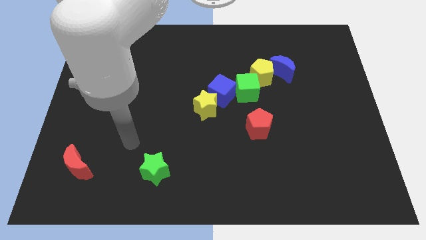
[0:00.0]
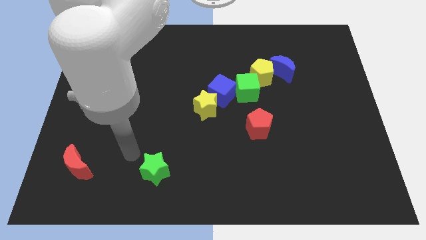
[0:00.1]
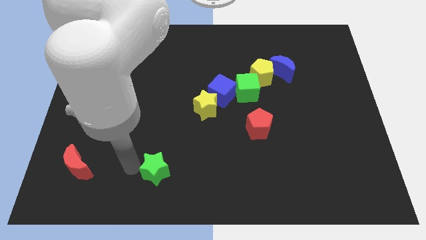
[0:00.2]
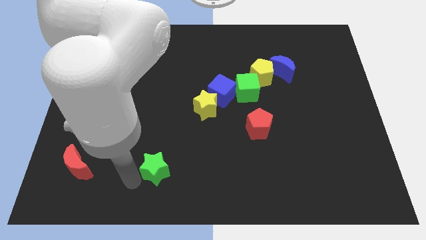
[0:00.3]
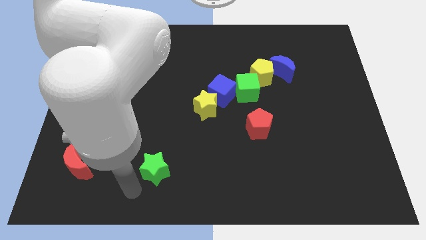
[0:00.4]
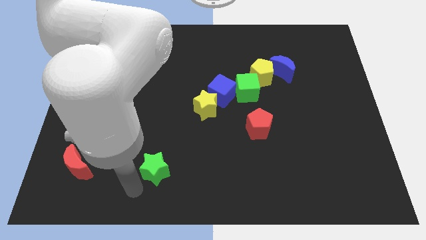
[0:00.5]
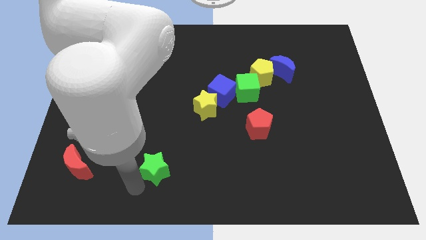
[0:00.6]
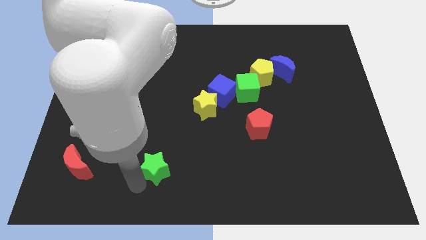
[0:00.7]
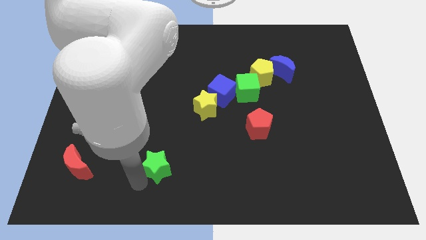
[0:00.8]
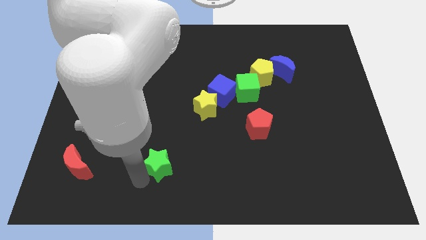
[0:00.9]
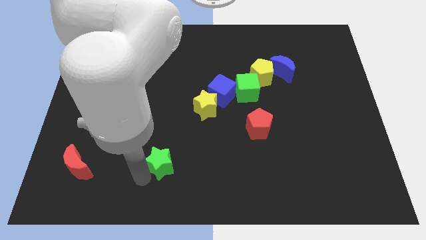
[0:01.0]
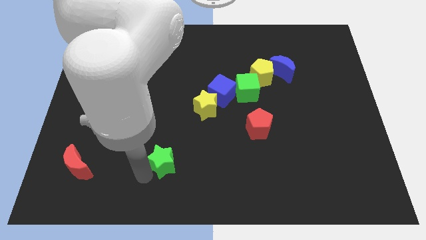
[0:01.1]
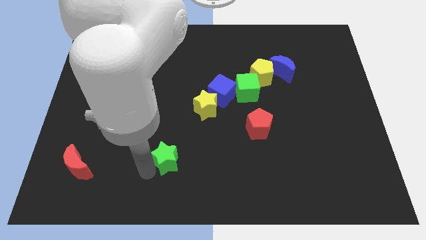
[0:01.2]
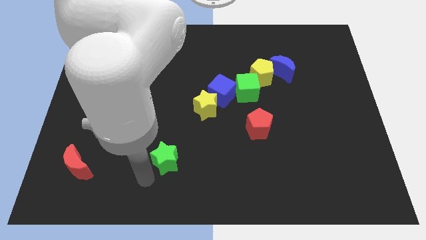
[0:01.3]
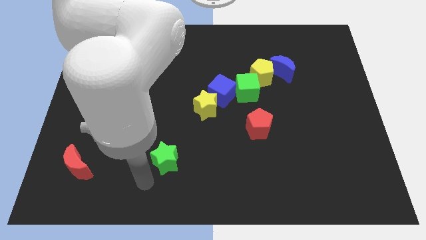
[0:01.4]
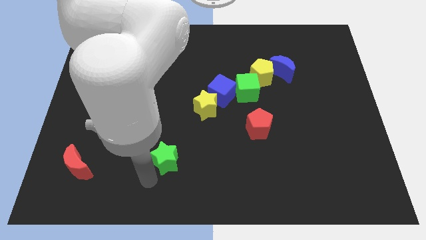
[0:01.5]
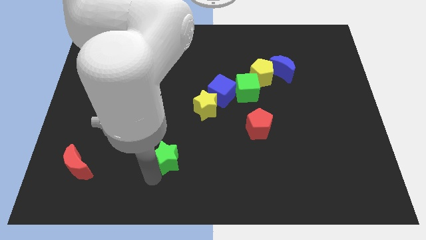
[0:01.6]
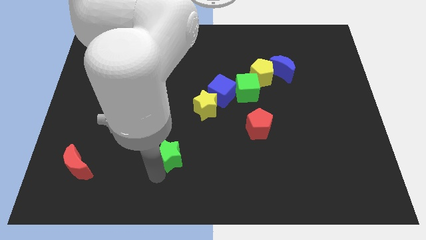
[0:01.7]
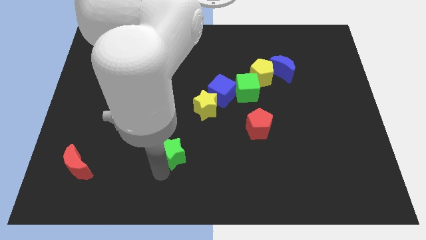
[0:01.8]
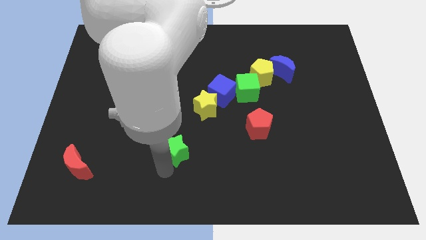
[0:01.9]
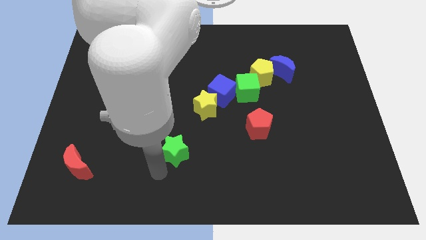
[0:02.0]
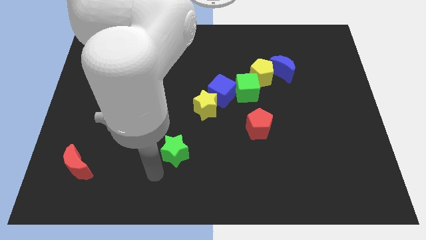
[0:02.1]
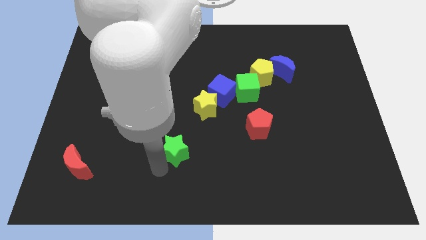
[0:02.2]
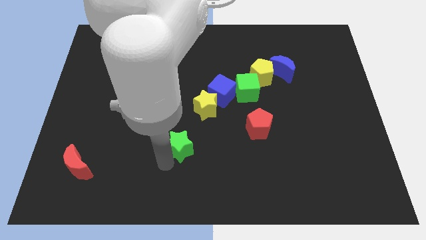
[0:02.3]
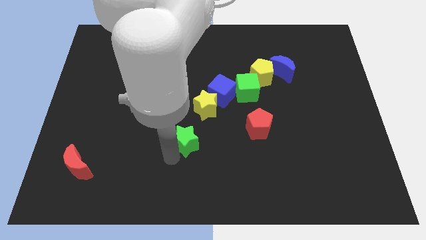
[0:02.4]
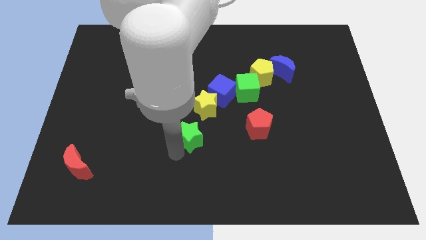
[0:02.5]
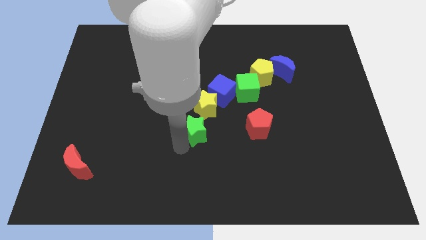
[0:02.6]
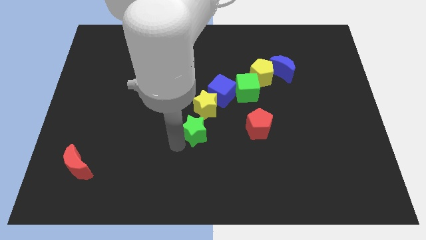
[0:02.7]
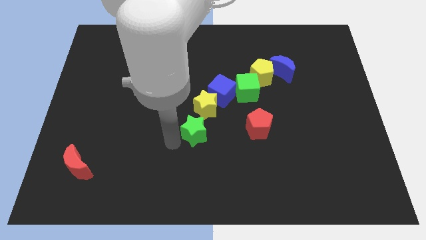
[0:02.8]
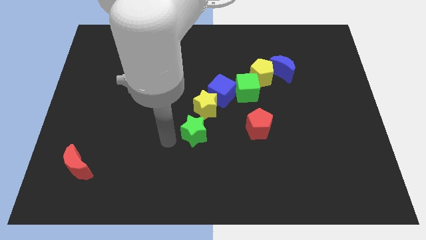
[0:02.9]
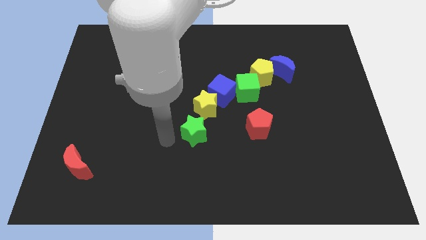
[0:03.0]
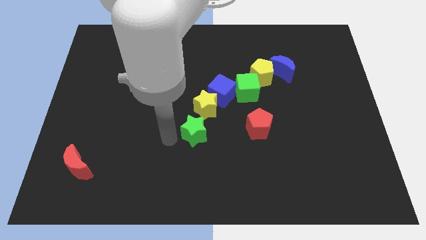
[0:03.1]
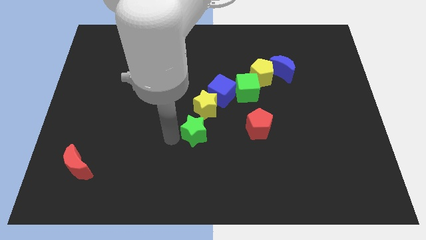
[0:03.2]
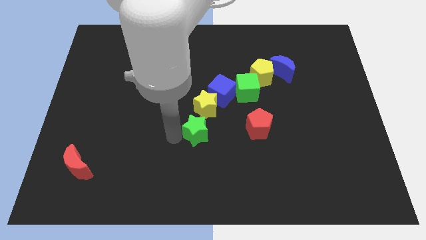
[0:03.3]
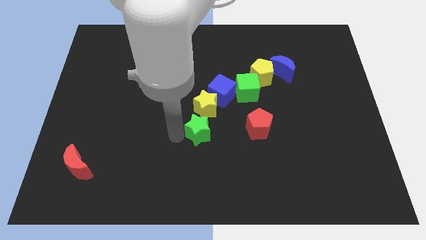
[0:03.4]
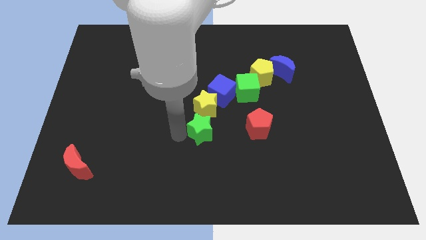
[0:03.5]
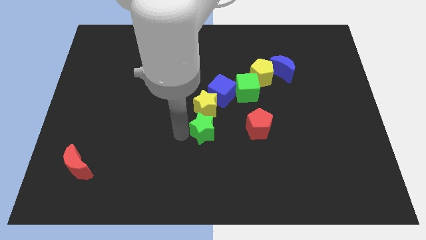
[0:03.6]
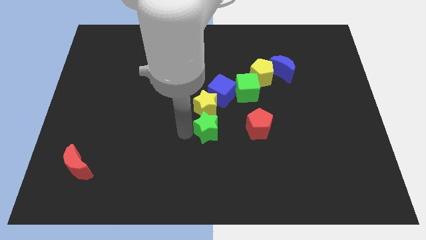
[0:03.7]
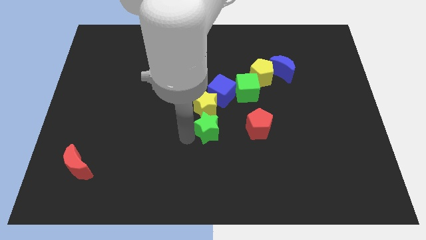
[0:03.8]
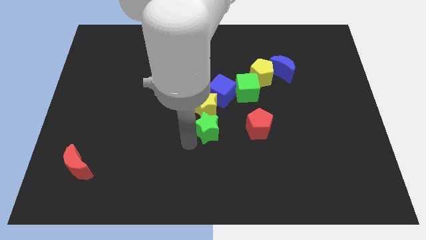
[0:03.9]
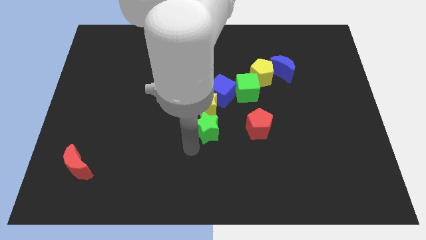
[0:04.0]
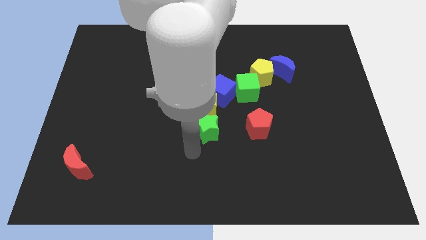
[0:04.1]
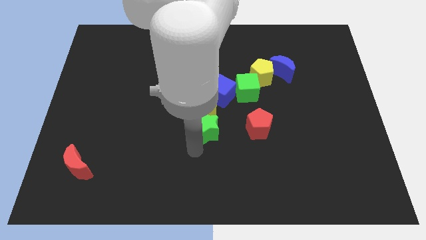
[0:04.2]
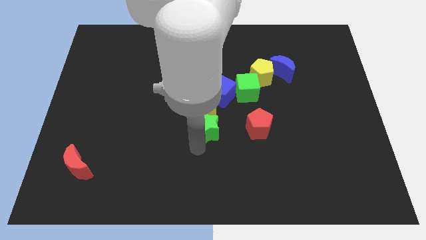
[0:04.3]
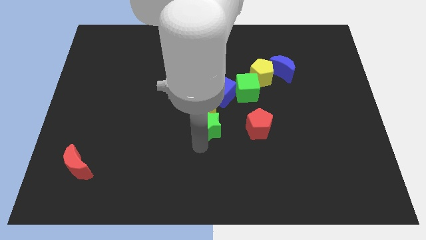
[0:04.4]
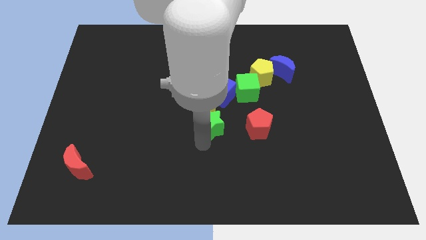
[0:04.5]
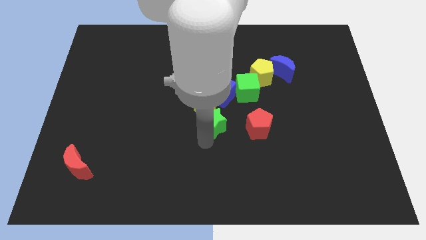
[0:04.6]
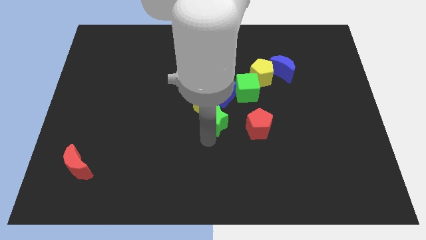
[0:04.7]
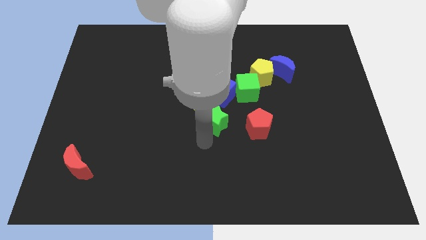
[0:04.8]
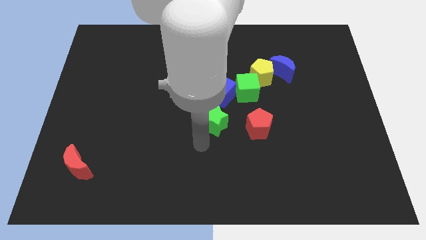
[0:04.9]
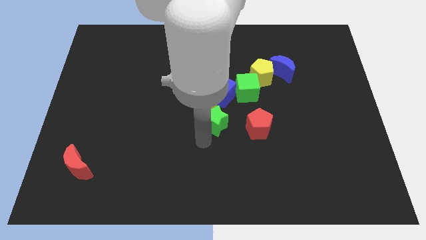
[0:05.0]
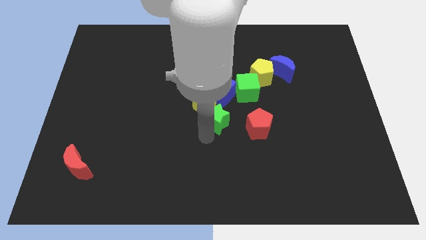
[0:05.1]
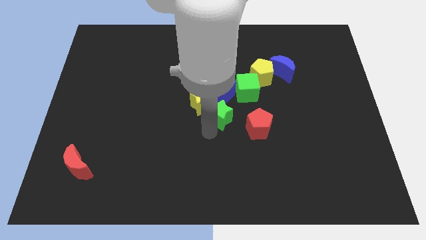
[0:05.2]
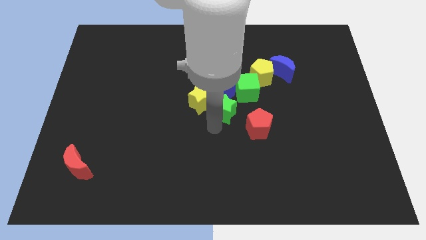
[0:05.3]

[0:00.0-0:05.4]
move the green star to the blue cube

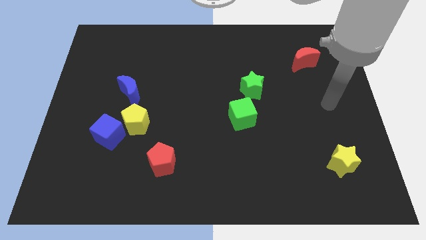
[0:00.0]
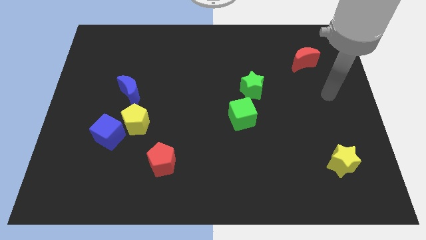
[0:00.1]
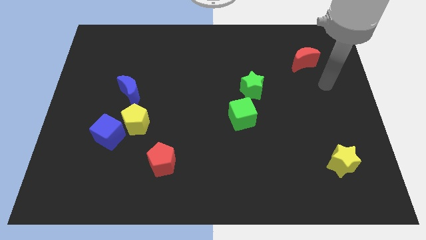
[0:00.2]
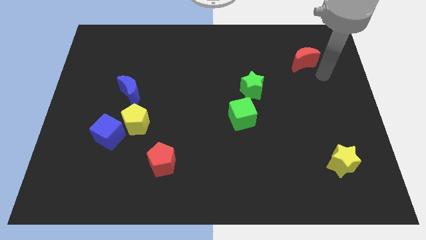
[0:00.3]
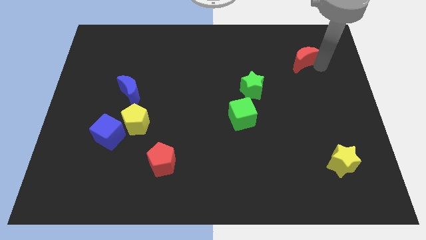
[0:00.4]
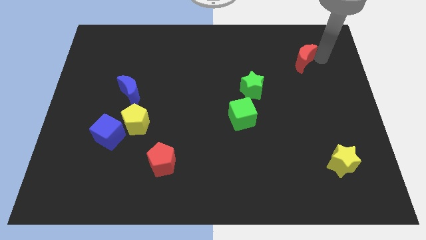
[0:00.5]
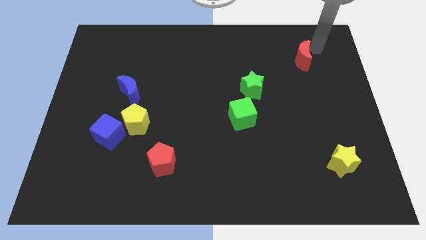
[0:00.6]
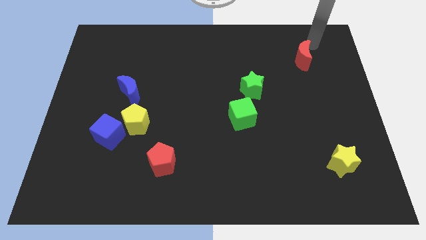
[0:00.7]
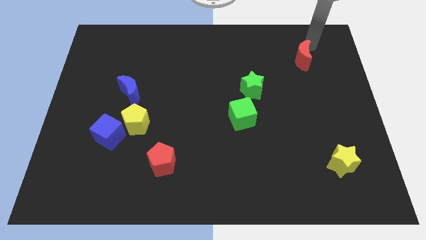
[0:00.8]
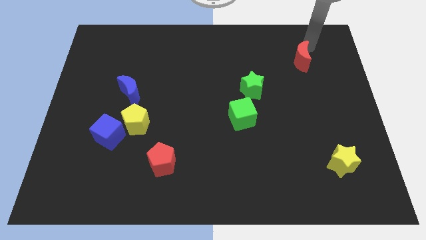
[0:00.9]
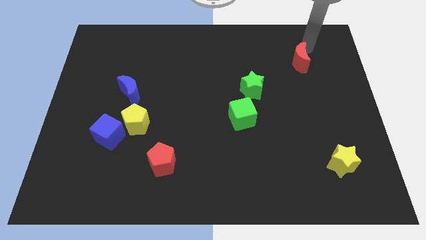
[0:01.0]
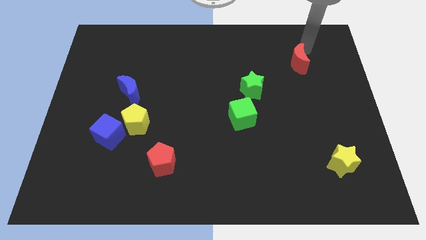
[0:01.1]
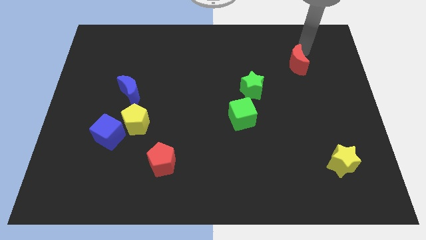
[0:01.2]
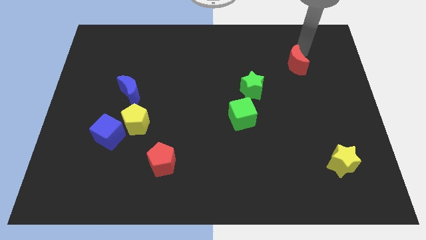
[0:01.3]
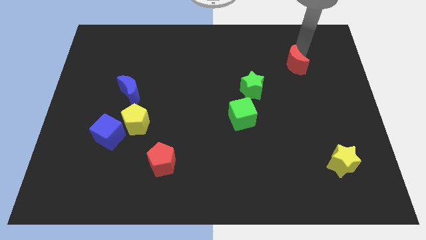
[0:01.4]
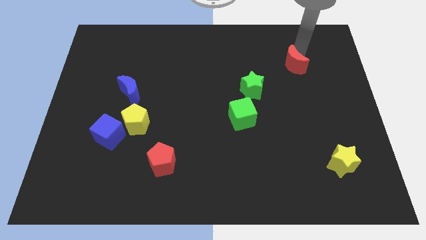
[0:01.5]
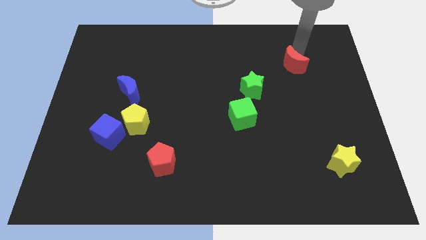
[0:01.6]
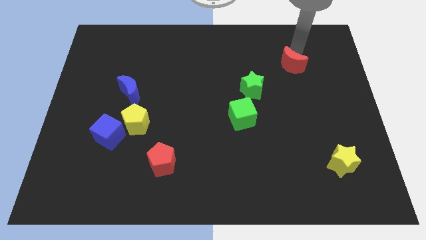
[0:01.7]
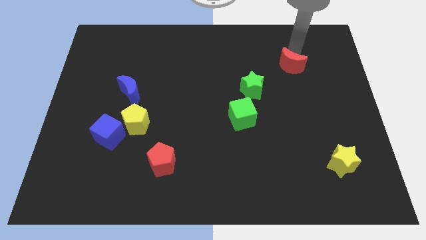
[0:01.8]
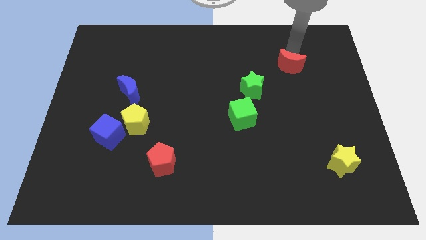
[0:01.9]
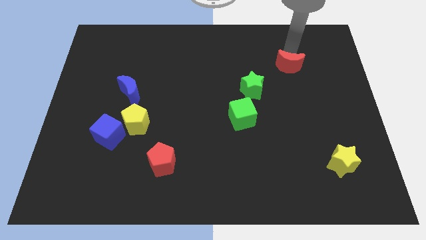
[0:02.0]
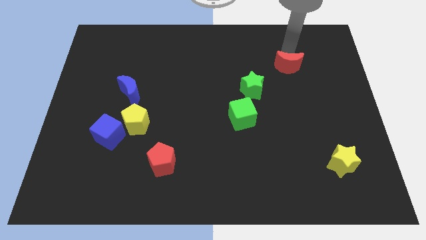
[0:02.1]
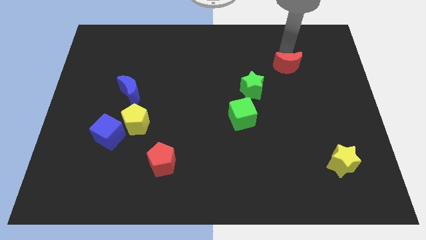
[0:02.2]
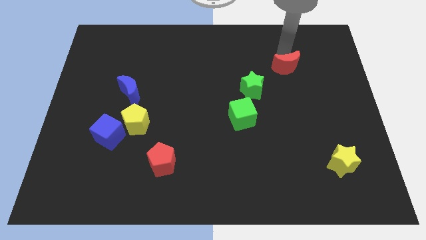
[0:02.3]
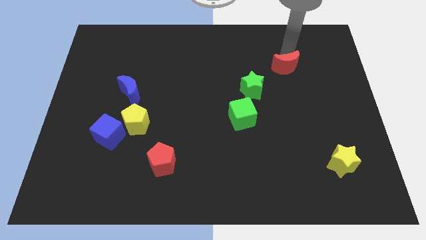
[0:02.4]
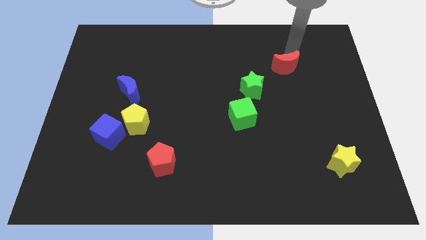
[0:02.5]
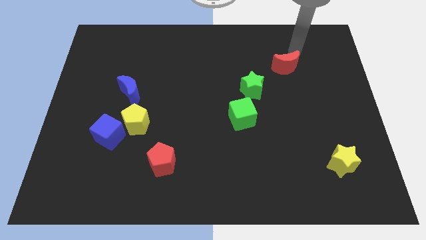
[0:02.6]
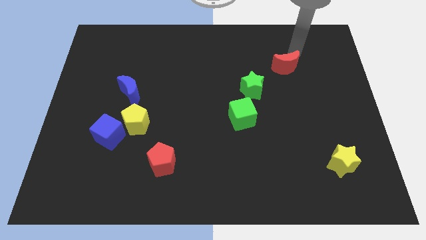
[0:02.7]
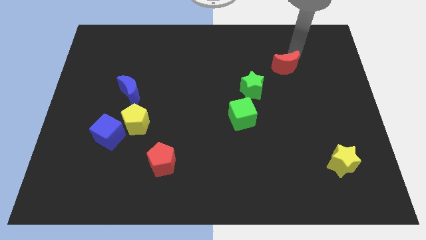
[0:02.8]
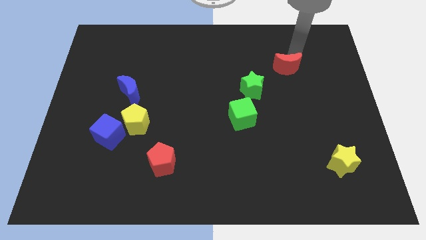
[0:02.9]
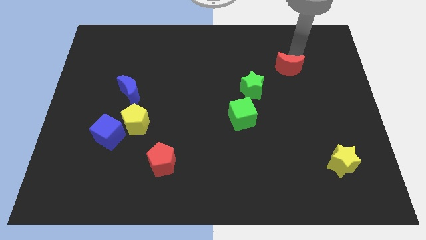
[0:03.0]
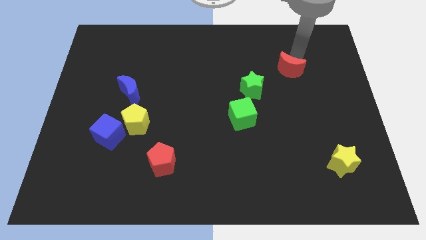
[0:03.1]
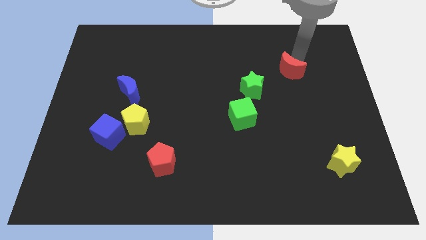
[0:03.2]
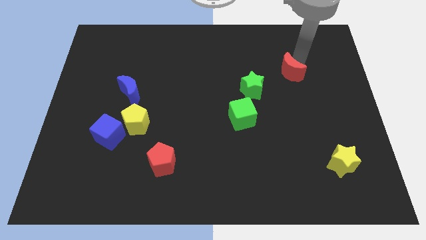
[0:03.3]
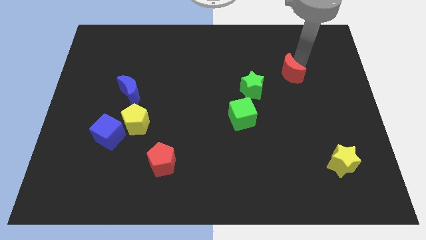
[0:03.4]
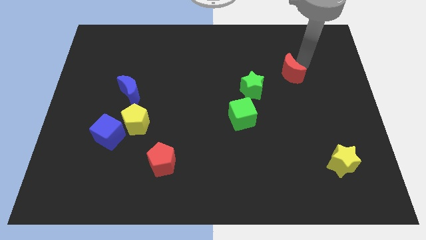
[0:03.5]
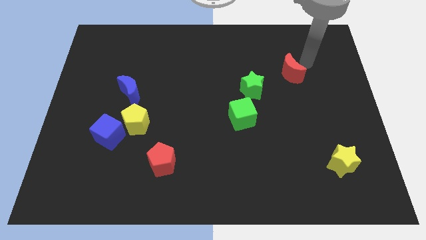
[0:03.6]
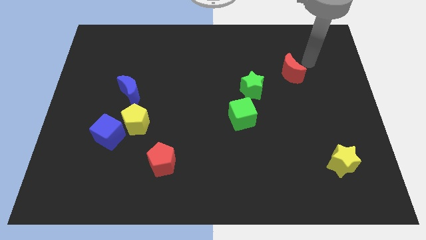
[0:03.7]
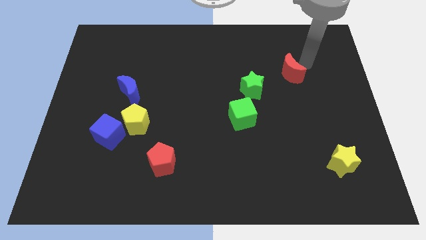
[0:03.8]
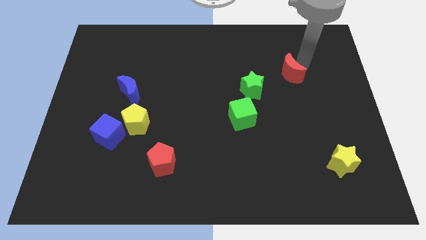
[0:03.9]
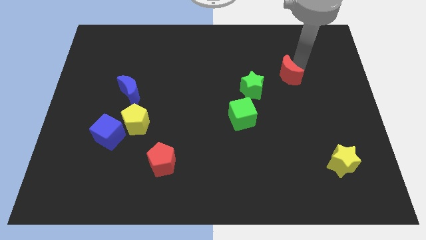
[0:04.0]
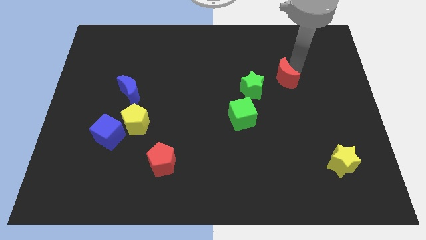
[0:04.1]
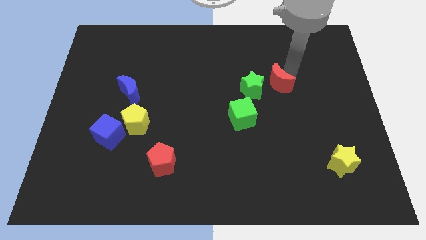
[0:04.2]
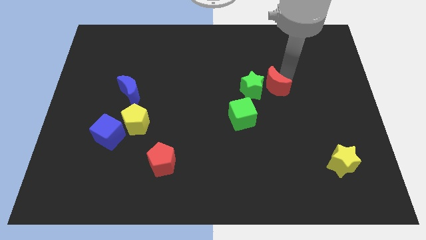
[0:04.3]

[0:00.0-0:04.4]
move the red moon to the green star
